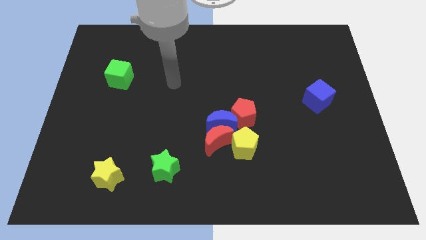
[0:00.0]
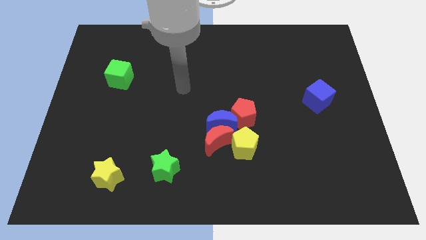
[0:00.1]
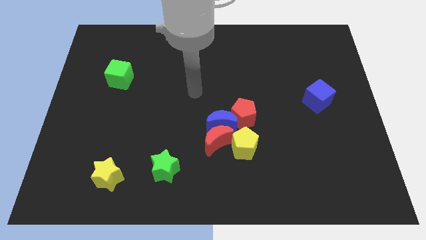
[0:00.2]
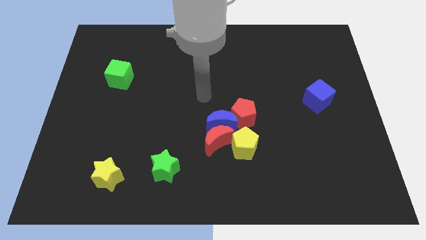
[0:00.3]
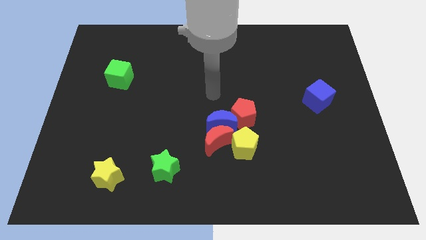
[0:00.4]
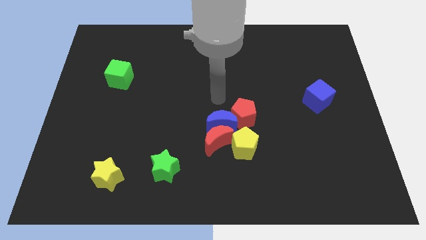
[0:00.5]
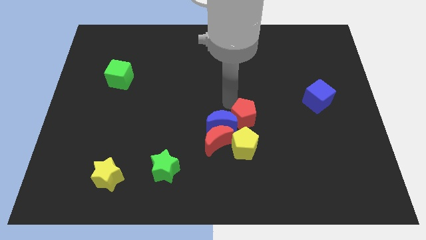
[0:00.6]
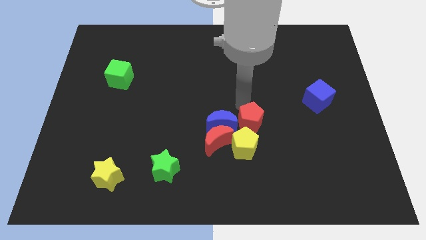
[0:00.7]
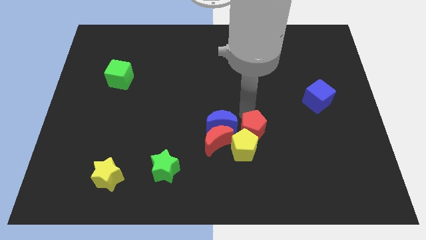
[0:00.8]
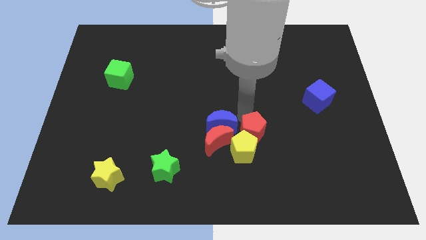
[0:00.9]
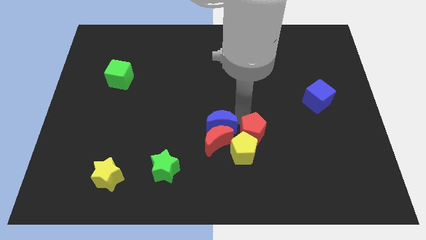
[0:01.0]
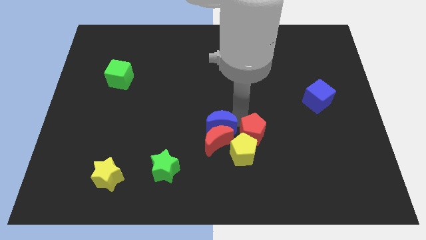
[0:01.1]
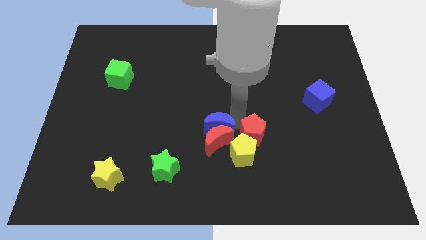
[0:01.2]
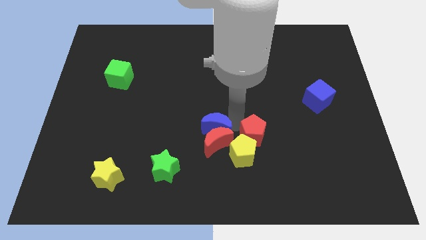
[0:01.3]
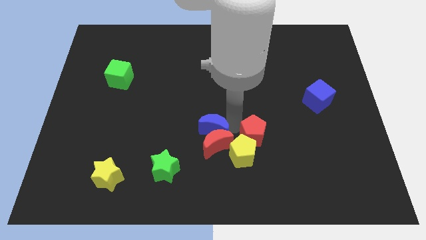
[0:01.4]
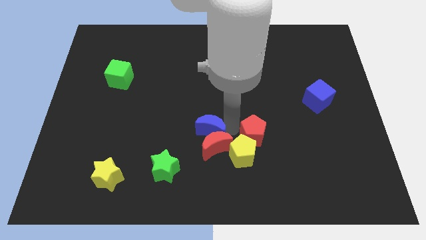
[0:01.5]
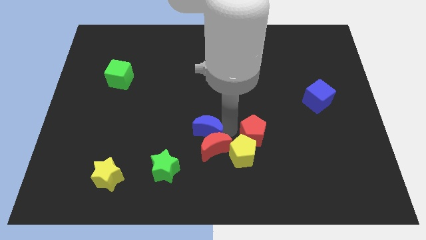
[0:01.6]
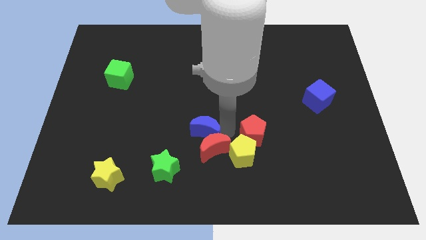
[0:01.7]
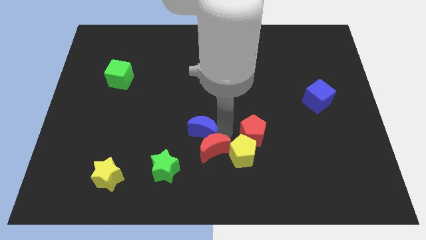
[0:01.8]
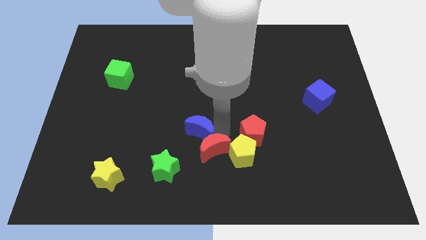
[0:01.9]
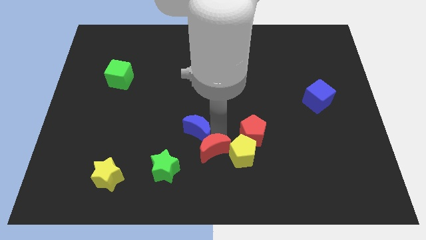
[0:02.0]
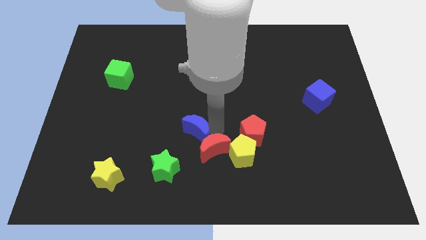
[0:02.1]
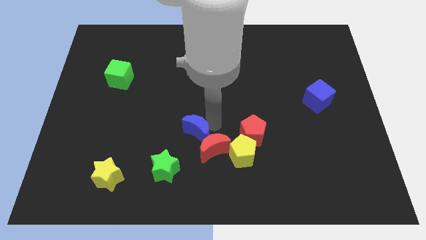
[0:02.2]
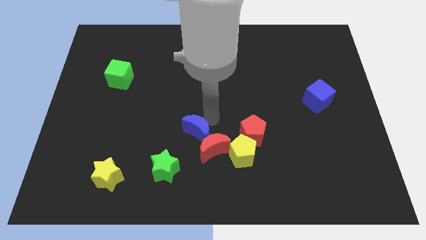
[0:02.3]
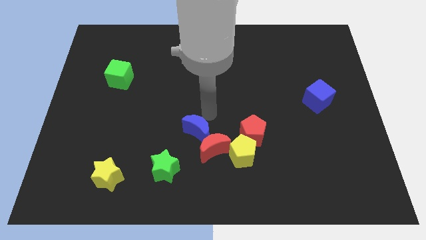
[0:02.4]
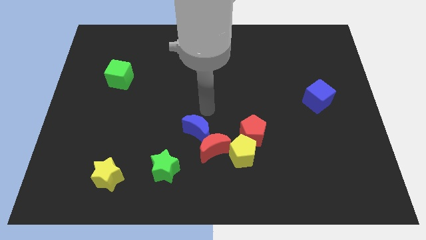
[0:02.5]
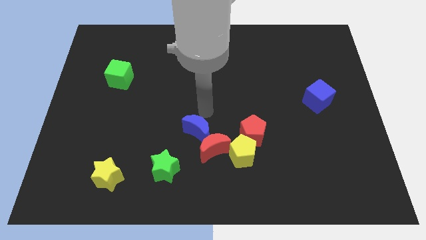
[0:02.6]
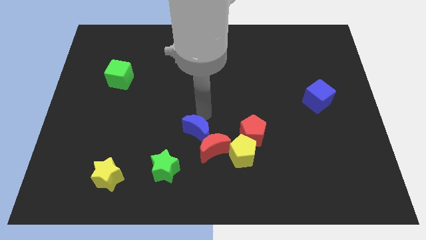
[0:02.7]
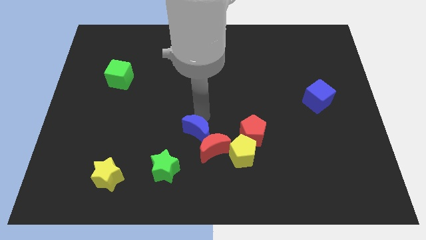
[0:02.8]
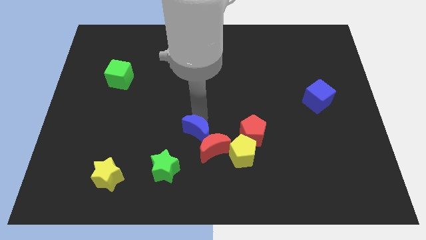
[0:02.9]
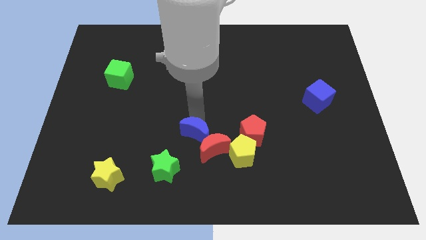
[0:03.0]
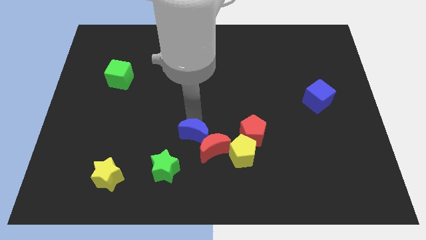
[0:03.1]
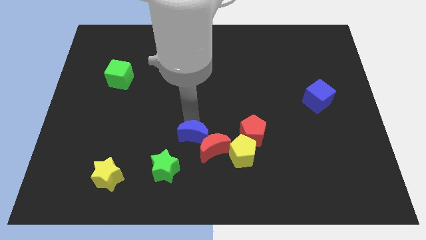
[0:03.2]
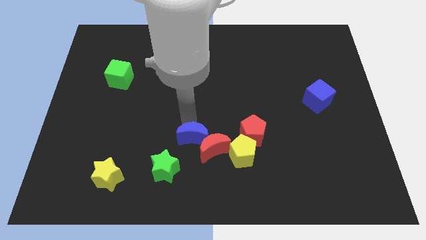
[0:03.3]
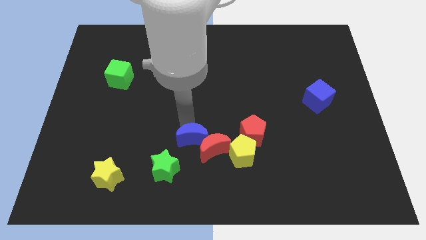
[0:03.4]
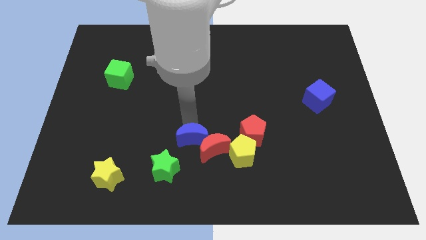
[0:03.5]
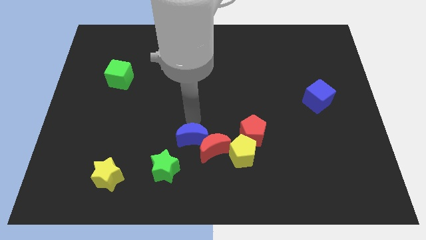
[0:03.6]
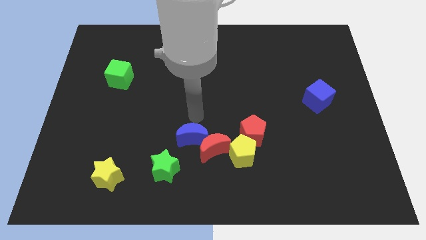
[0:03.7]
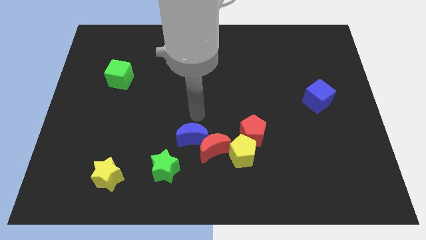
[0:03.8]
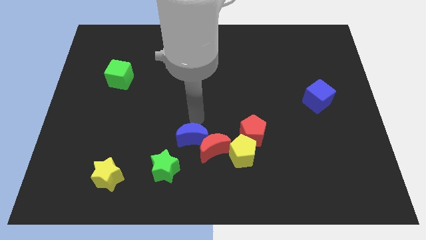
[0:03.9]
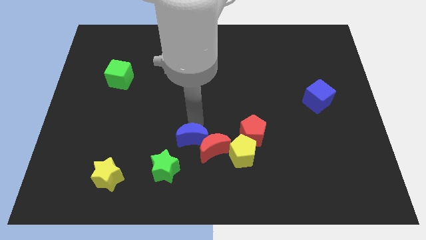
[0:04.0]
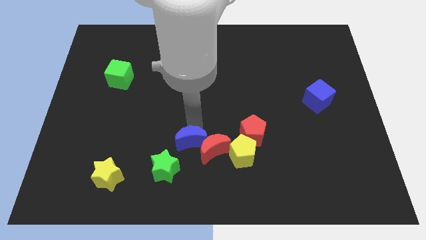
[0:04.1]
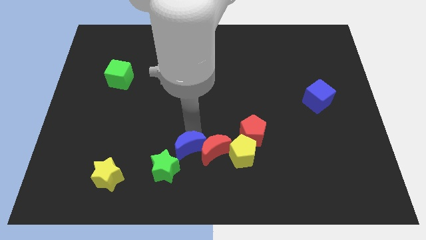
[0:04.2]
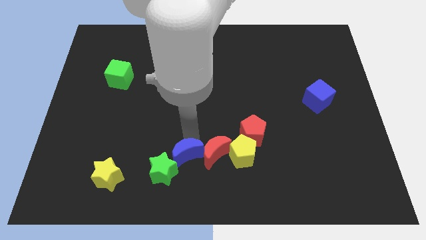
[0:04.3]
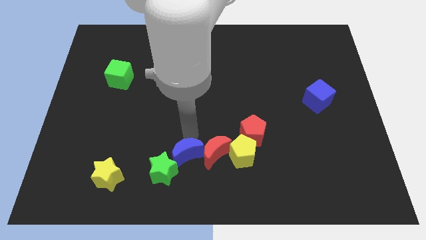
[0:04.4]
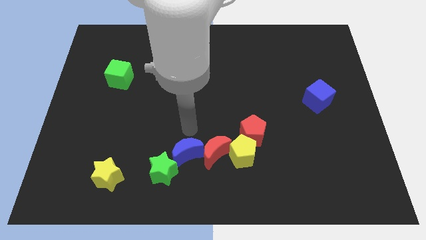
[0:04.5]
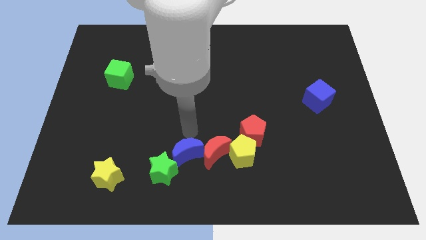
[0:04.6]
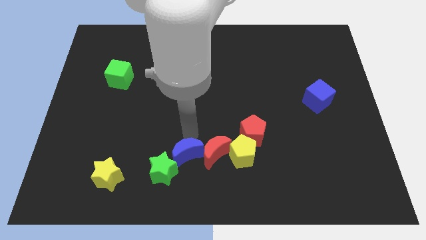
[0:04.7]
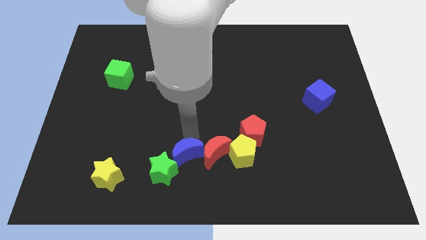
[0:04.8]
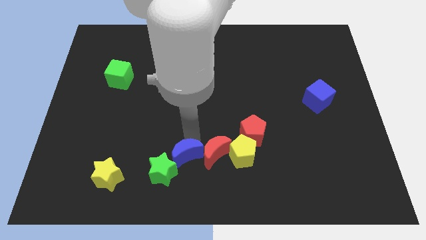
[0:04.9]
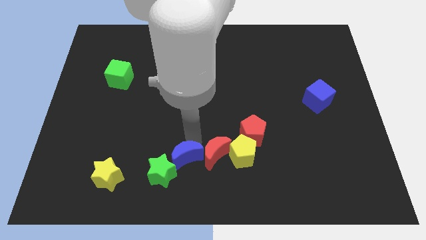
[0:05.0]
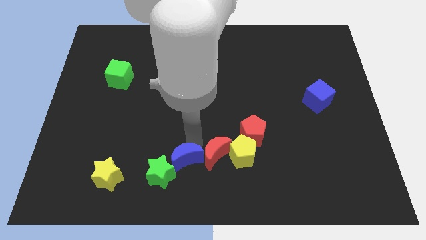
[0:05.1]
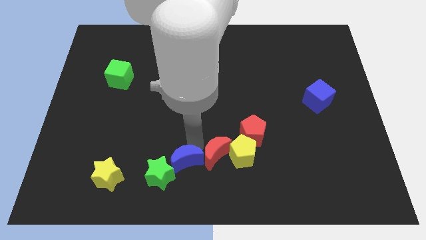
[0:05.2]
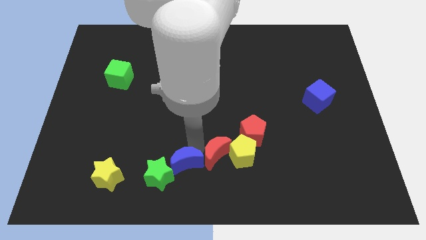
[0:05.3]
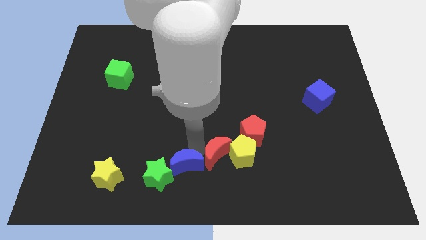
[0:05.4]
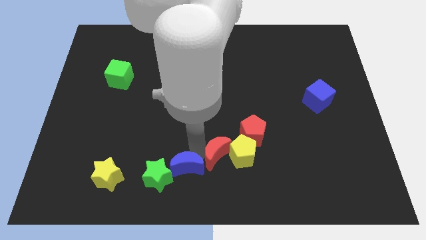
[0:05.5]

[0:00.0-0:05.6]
slide the blue moon to the right side of the yellow star

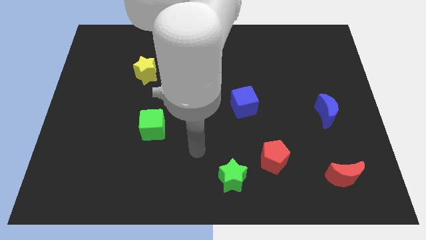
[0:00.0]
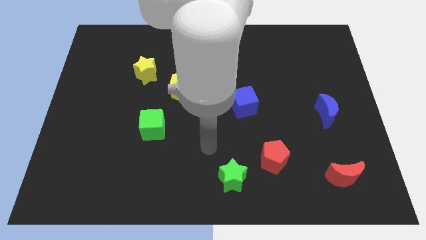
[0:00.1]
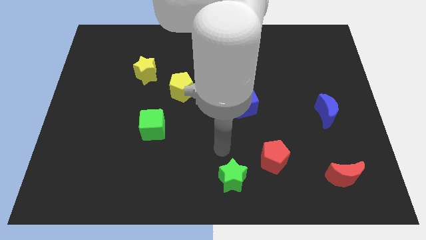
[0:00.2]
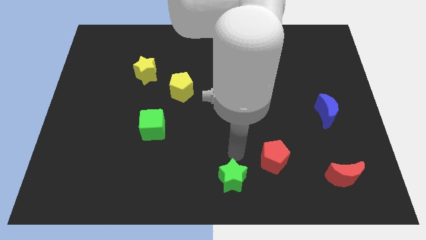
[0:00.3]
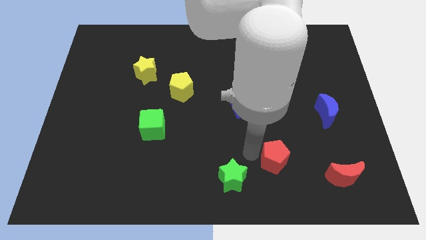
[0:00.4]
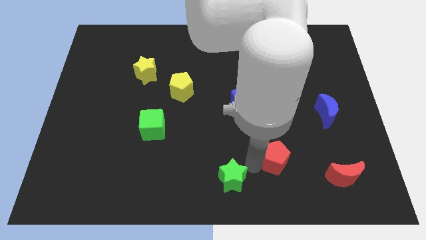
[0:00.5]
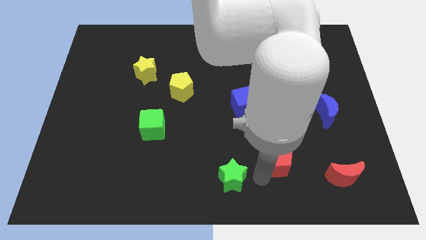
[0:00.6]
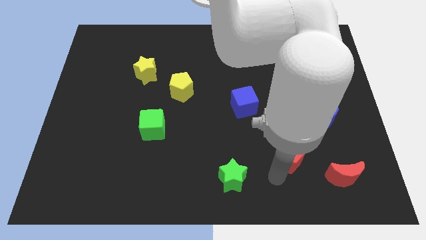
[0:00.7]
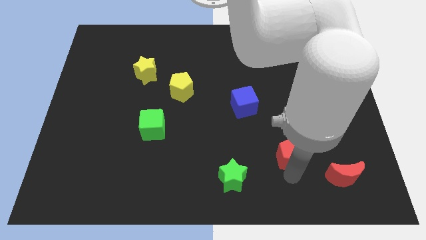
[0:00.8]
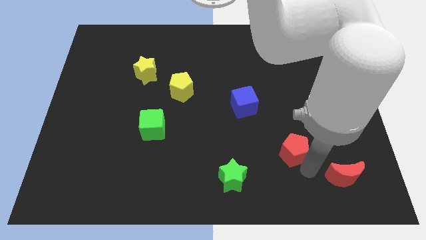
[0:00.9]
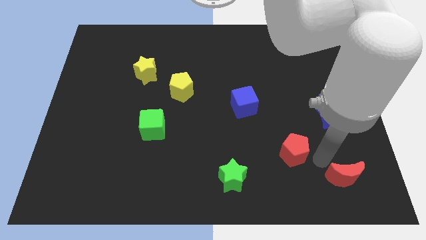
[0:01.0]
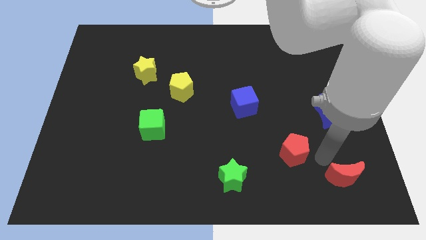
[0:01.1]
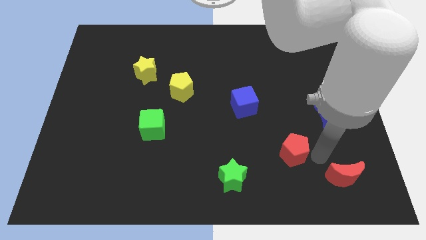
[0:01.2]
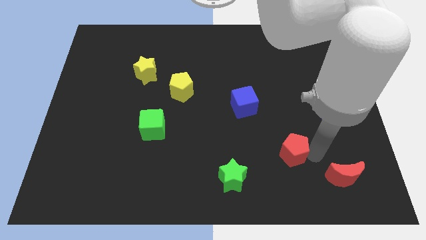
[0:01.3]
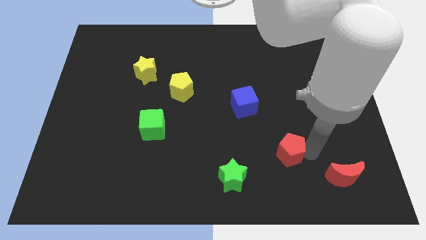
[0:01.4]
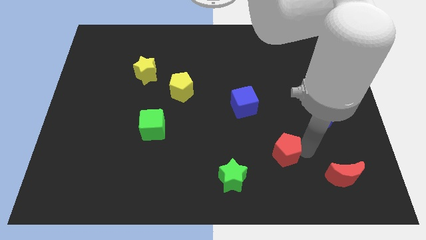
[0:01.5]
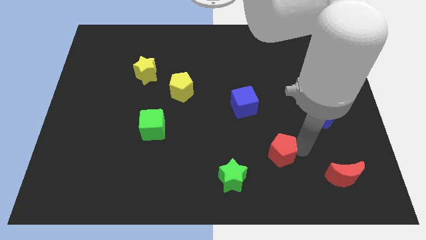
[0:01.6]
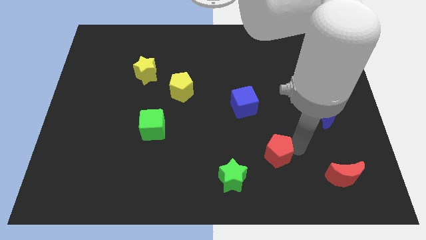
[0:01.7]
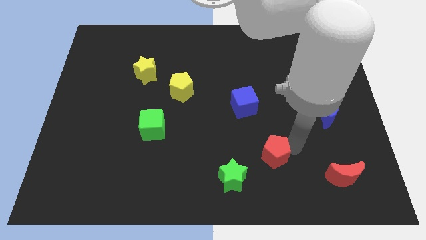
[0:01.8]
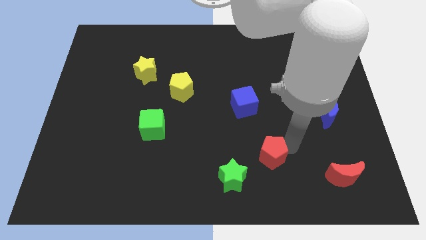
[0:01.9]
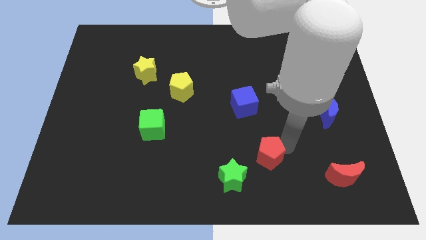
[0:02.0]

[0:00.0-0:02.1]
put the red pentagon to the bottom side of the blue cube
